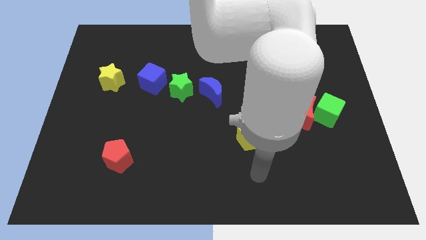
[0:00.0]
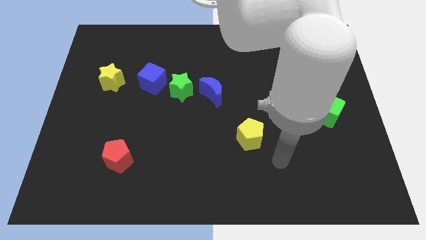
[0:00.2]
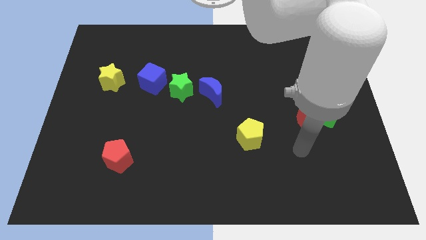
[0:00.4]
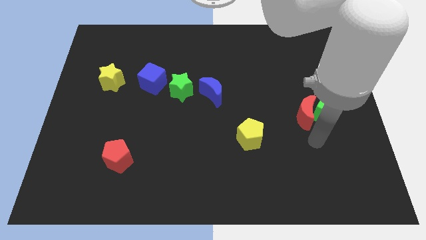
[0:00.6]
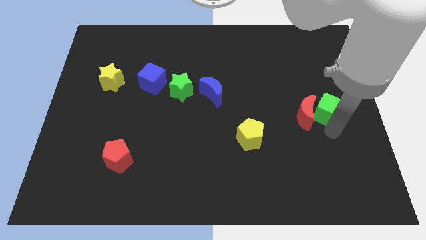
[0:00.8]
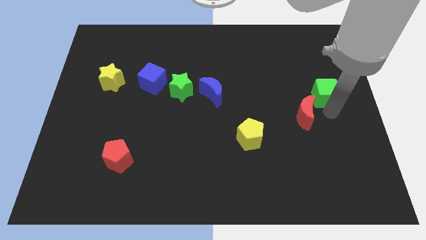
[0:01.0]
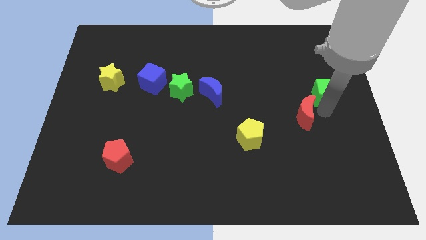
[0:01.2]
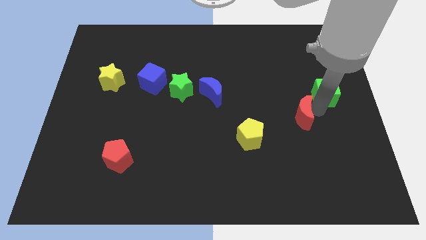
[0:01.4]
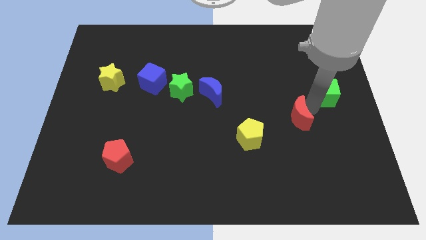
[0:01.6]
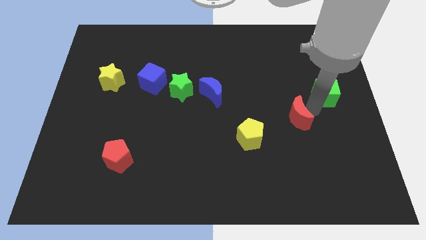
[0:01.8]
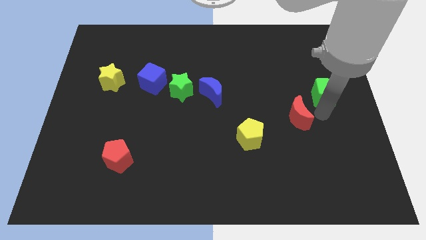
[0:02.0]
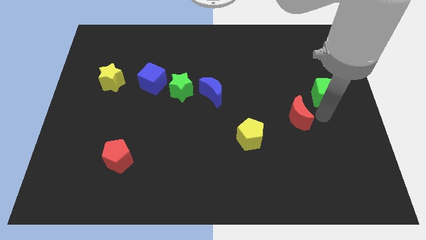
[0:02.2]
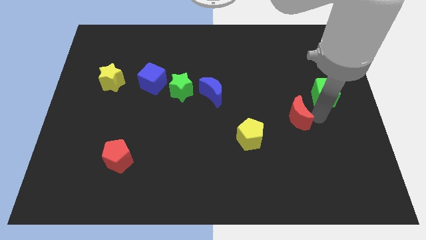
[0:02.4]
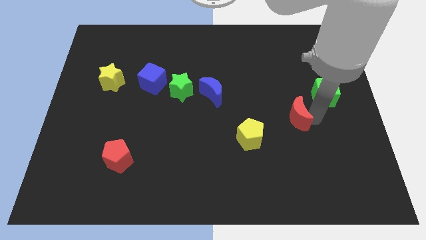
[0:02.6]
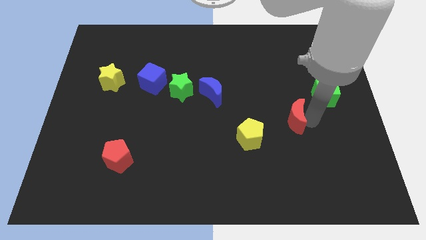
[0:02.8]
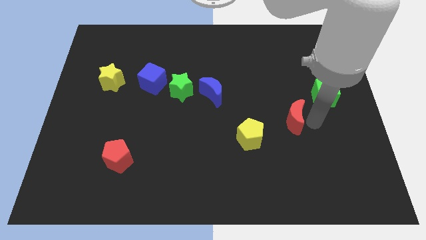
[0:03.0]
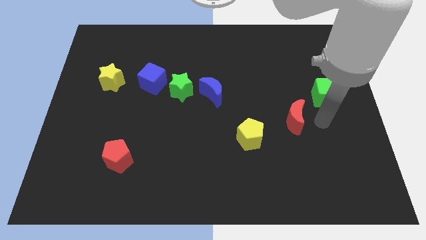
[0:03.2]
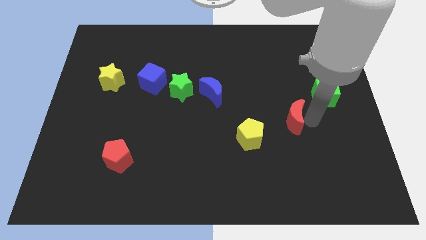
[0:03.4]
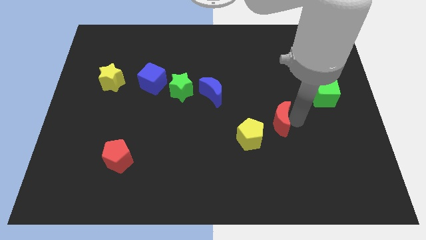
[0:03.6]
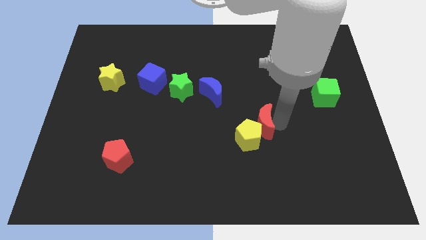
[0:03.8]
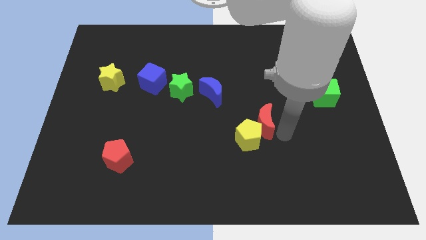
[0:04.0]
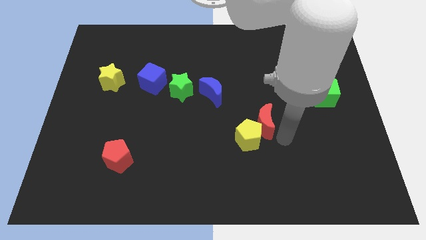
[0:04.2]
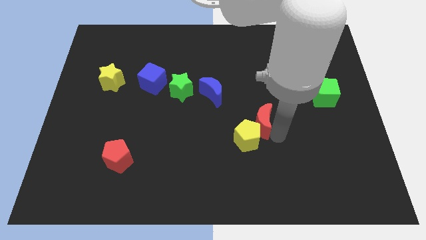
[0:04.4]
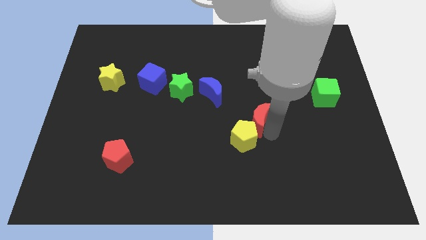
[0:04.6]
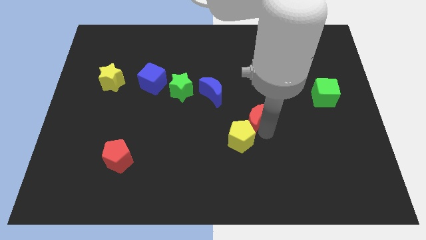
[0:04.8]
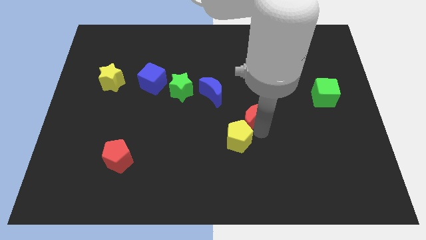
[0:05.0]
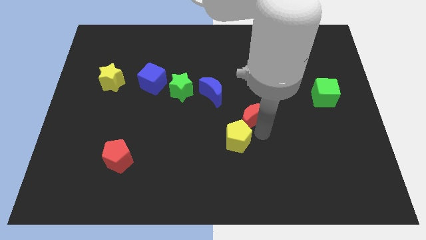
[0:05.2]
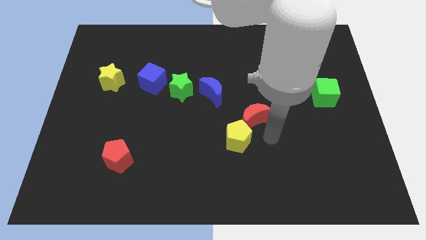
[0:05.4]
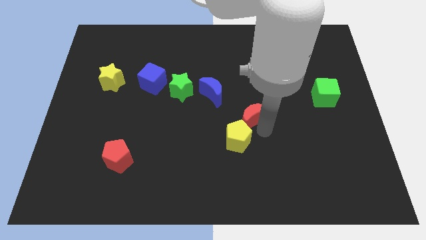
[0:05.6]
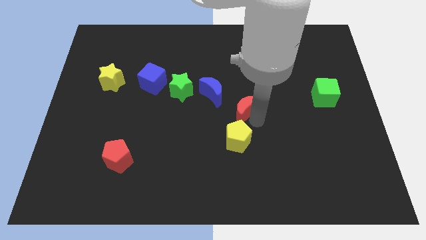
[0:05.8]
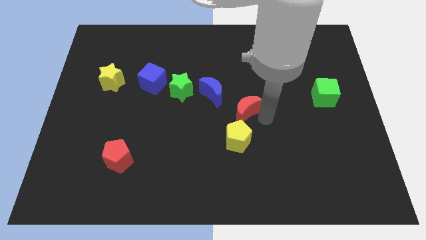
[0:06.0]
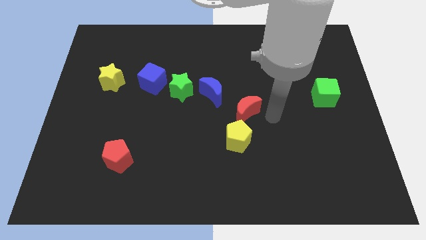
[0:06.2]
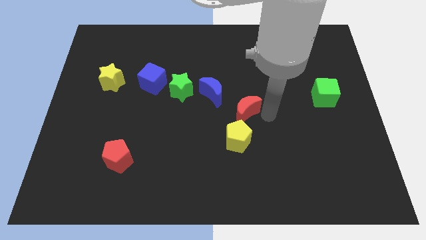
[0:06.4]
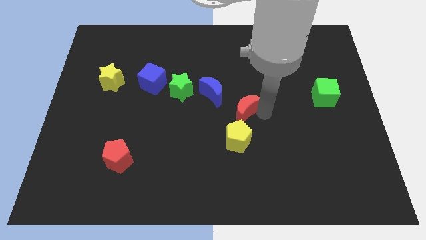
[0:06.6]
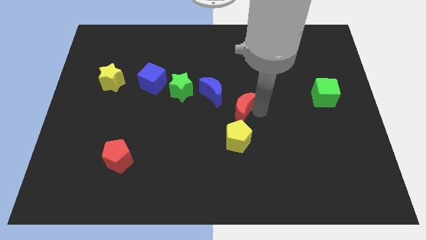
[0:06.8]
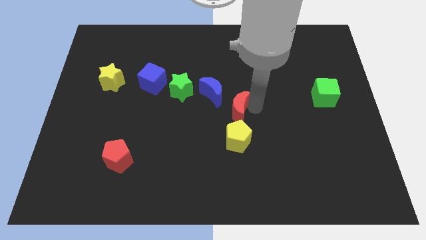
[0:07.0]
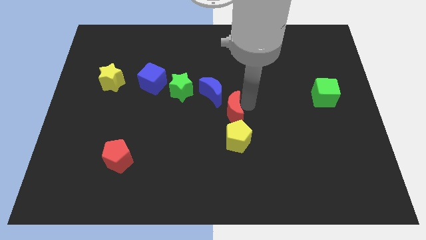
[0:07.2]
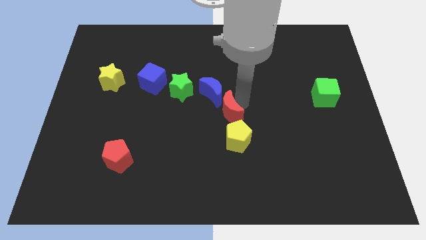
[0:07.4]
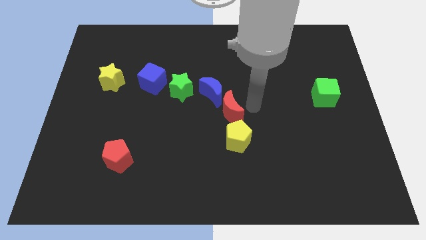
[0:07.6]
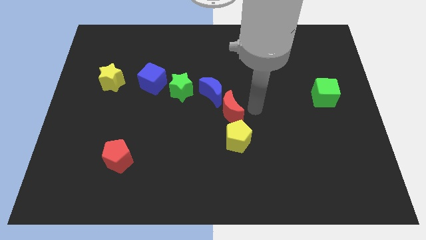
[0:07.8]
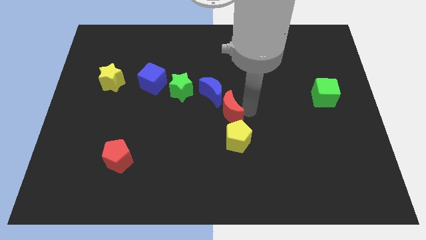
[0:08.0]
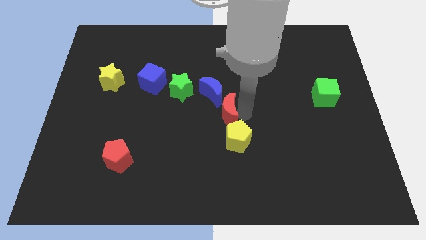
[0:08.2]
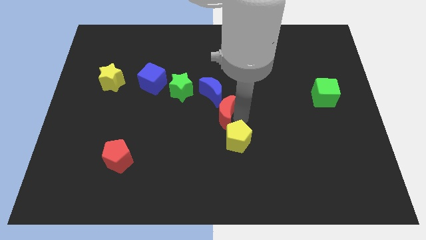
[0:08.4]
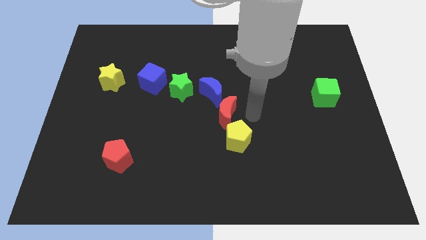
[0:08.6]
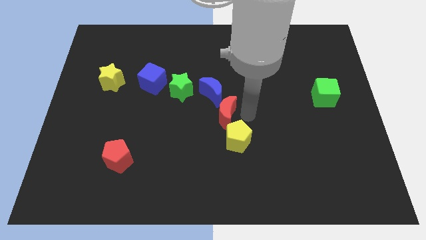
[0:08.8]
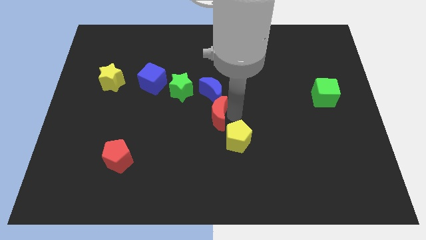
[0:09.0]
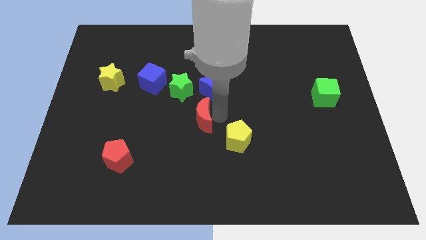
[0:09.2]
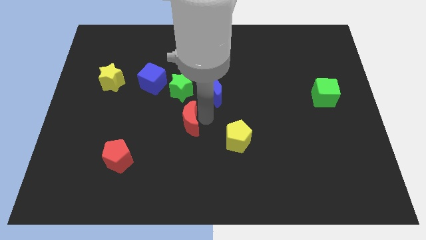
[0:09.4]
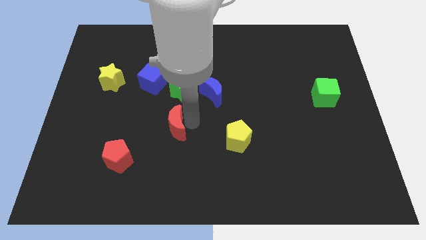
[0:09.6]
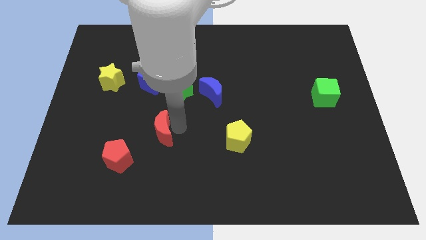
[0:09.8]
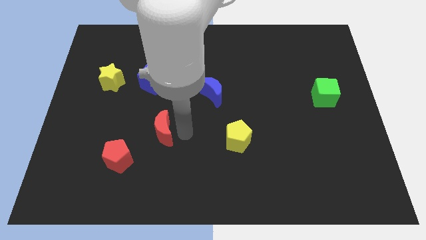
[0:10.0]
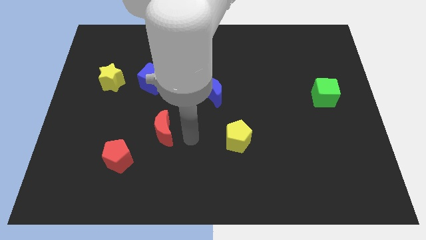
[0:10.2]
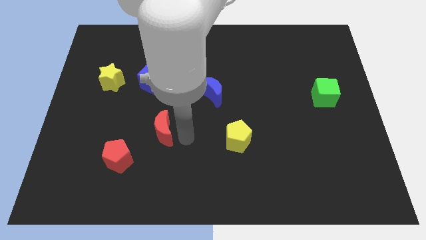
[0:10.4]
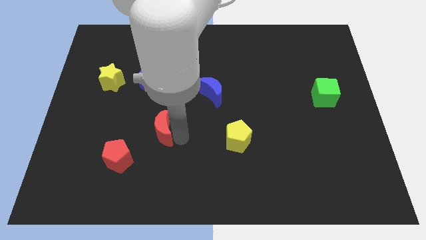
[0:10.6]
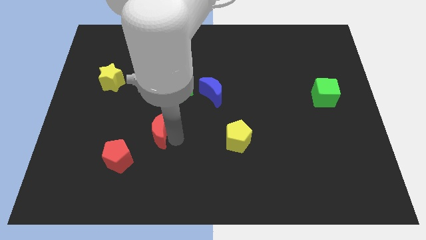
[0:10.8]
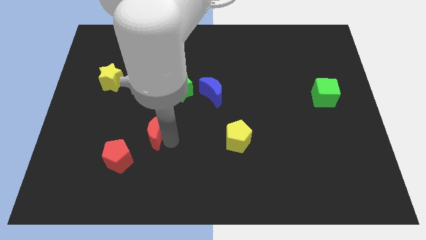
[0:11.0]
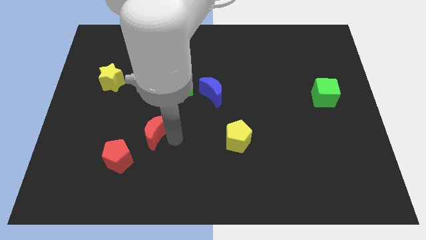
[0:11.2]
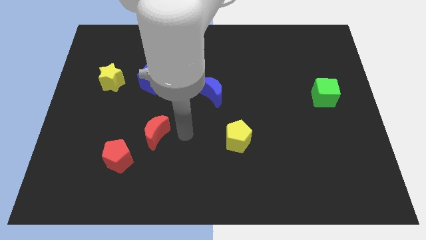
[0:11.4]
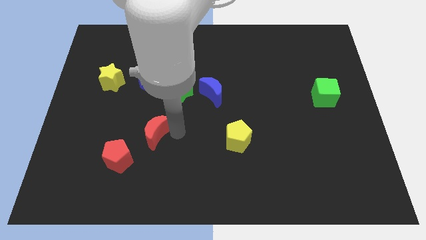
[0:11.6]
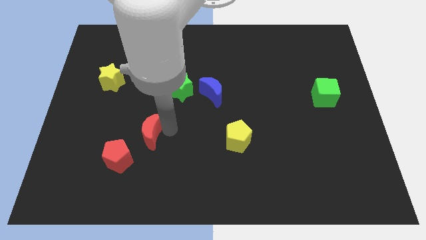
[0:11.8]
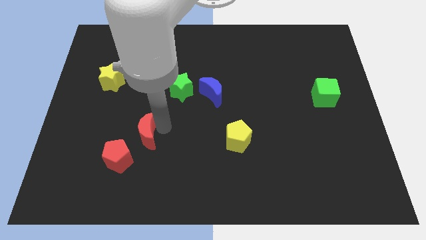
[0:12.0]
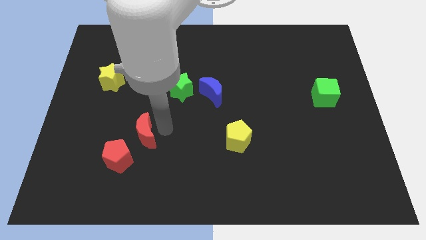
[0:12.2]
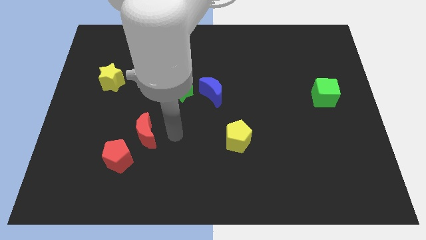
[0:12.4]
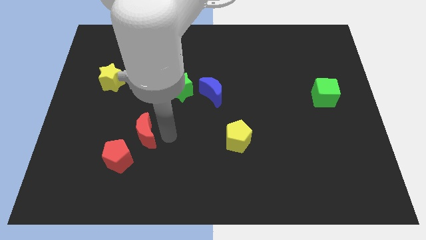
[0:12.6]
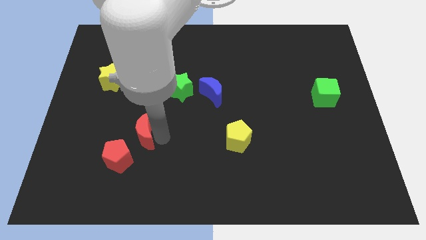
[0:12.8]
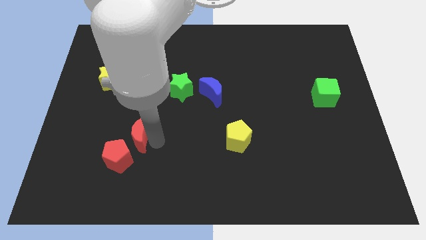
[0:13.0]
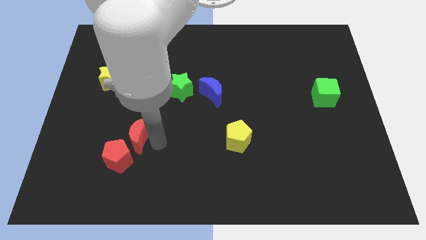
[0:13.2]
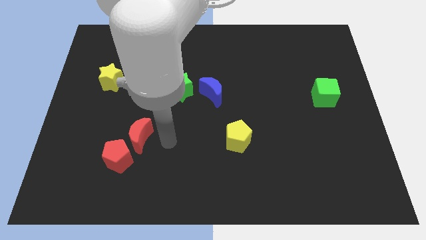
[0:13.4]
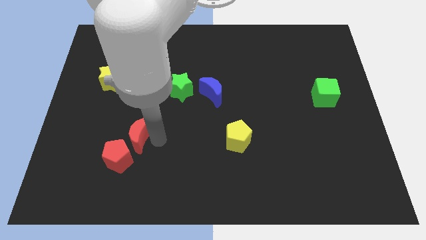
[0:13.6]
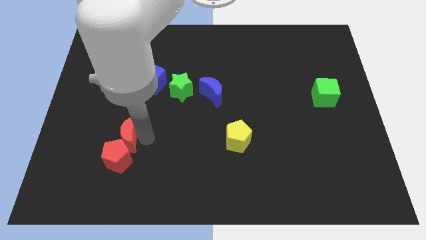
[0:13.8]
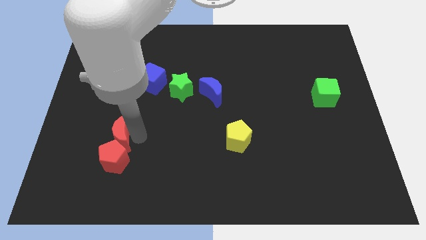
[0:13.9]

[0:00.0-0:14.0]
push the red moon to the top left of the red pentagon

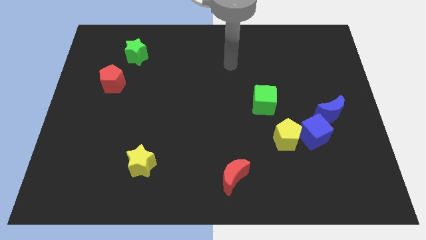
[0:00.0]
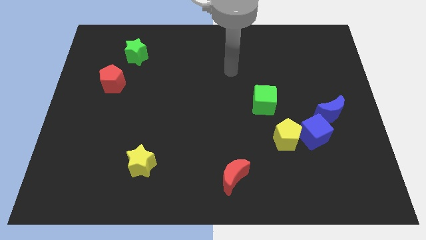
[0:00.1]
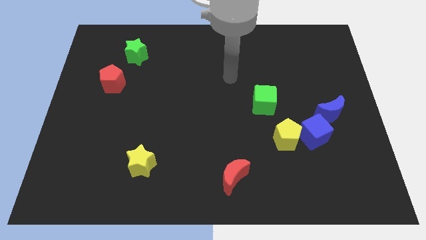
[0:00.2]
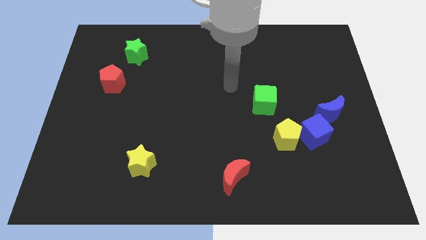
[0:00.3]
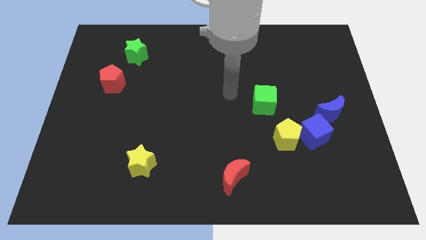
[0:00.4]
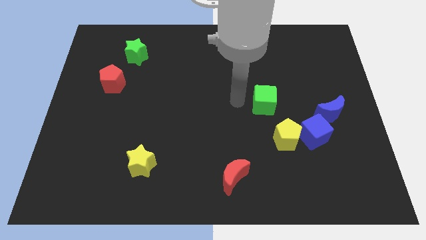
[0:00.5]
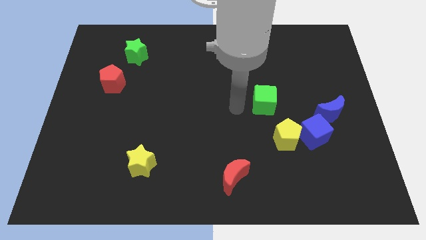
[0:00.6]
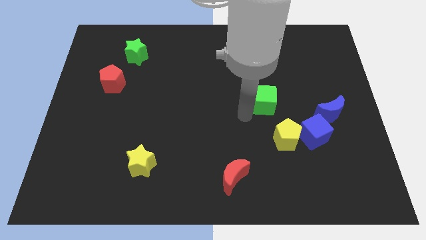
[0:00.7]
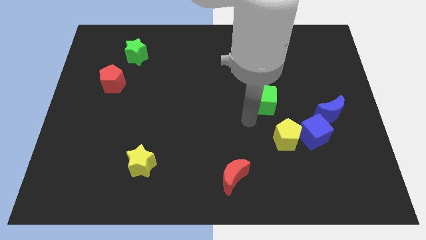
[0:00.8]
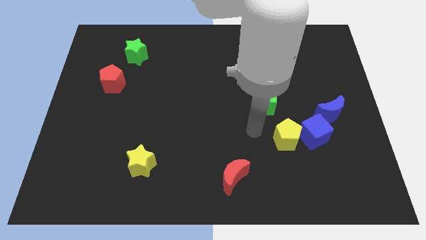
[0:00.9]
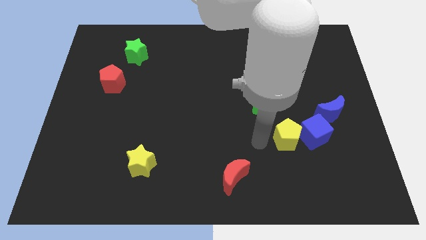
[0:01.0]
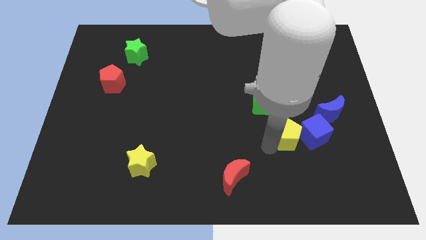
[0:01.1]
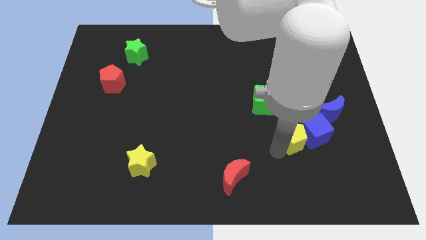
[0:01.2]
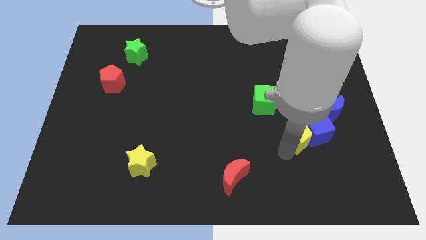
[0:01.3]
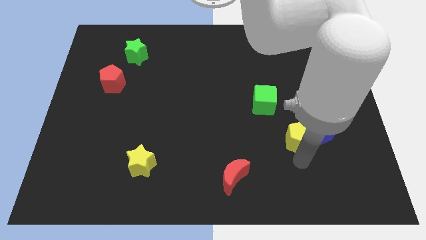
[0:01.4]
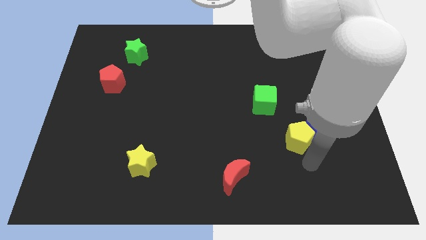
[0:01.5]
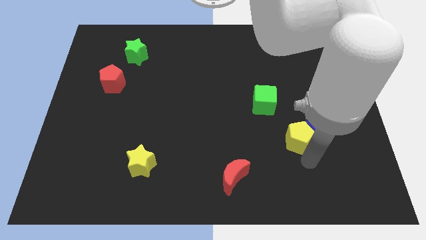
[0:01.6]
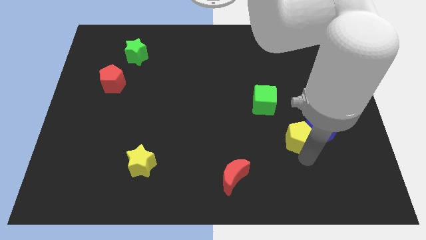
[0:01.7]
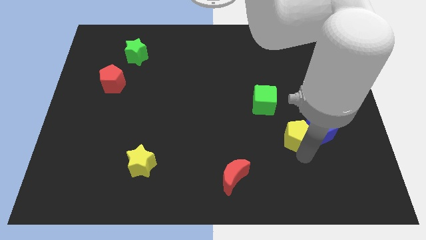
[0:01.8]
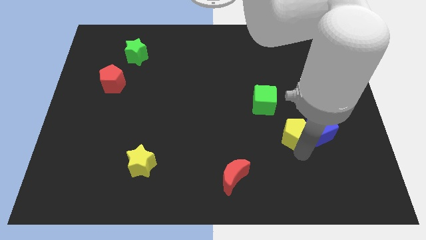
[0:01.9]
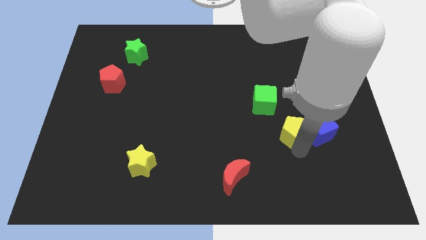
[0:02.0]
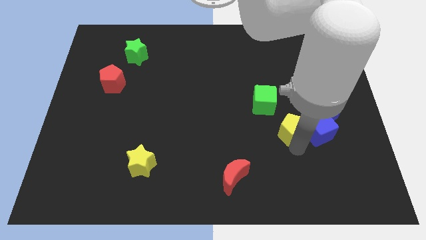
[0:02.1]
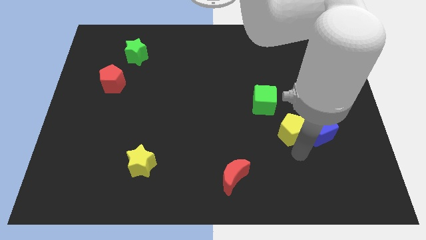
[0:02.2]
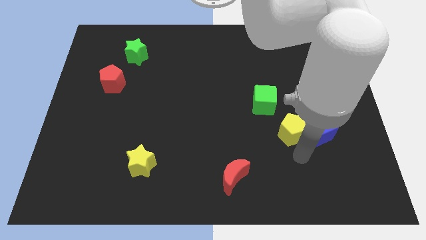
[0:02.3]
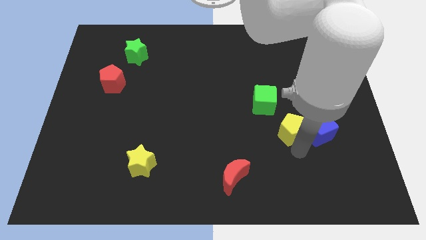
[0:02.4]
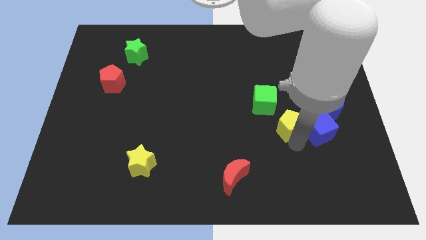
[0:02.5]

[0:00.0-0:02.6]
put the yellow pentagon to the left side of the blue moon
